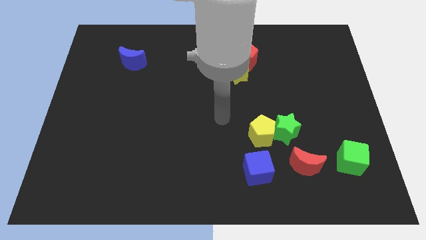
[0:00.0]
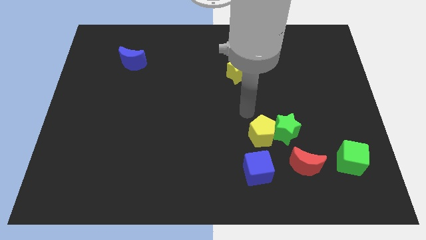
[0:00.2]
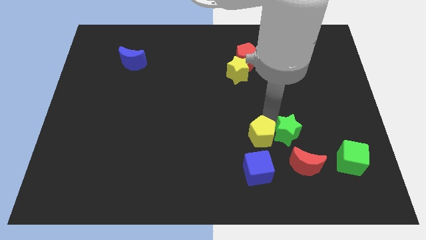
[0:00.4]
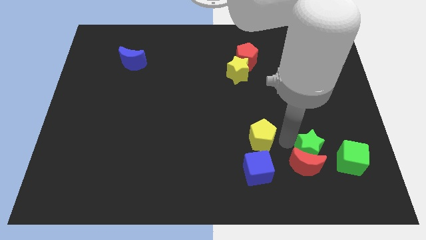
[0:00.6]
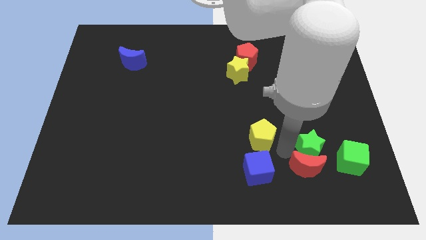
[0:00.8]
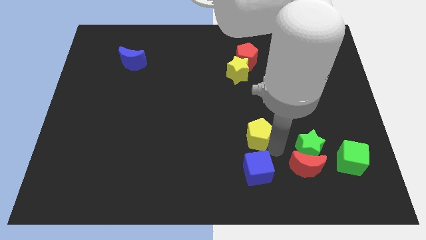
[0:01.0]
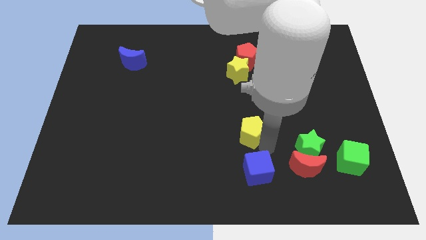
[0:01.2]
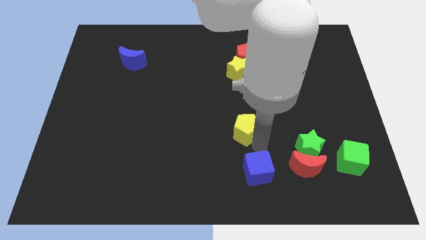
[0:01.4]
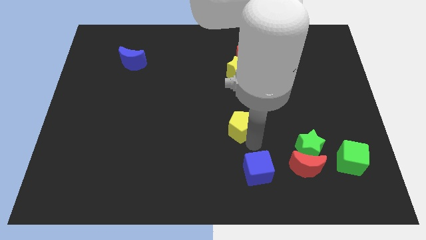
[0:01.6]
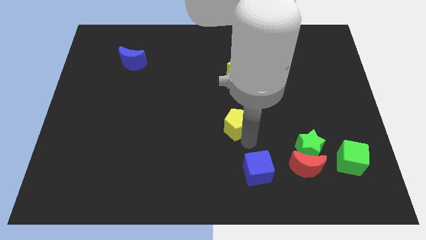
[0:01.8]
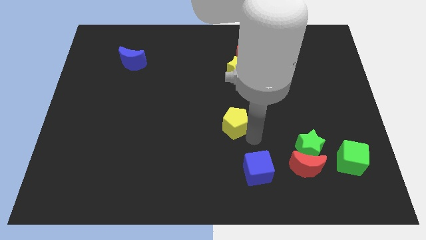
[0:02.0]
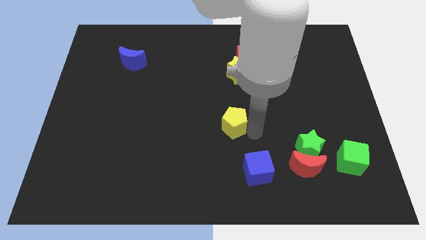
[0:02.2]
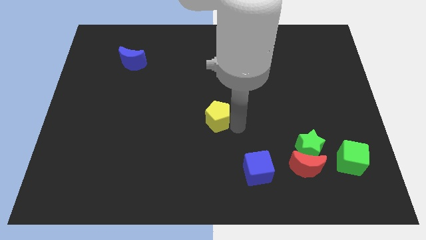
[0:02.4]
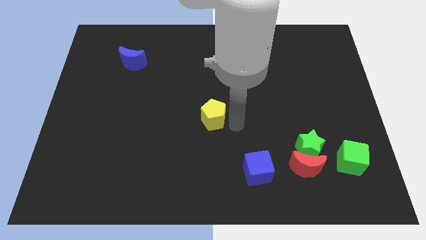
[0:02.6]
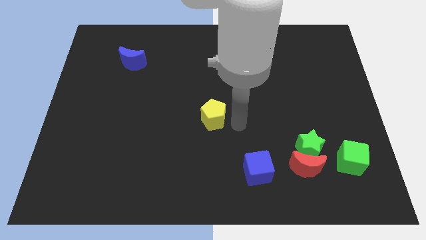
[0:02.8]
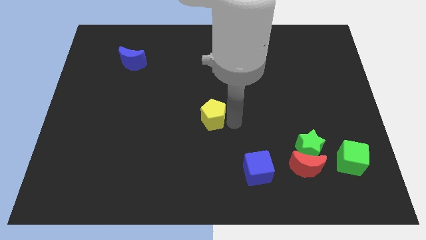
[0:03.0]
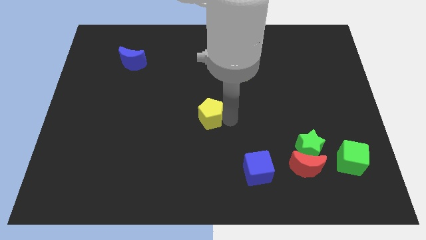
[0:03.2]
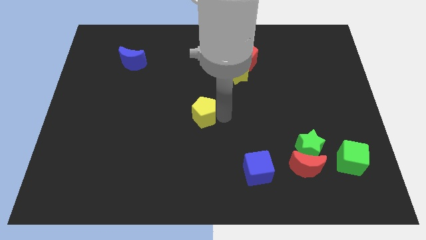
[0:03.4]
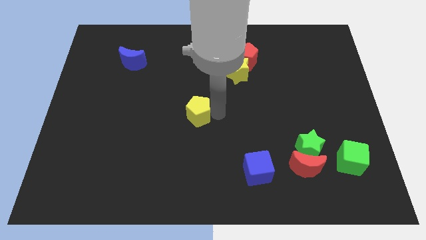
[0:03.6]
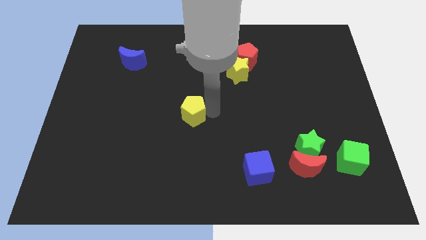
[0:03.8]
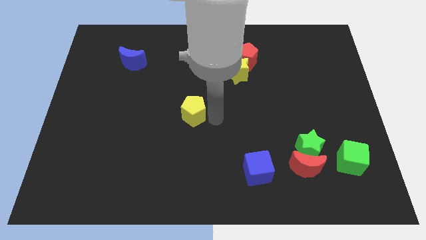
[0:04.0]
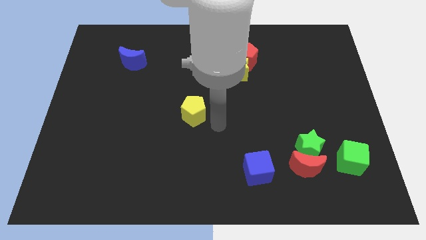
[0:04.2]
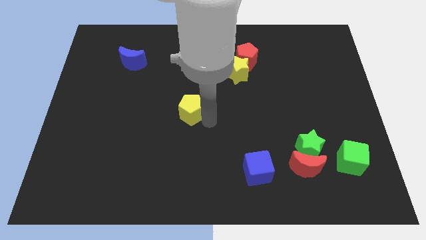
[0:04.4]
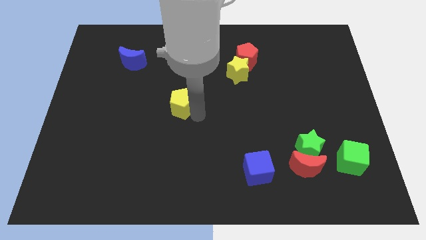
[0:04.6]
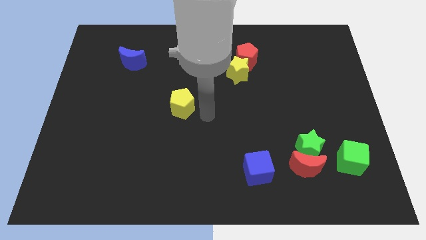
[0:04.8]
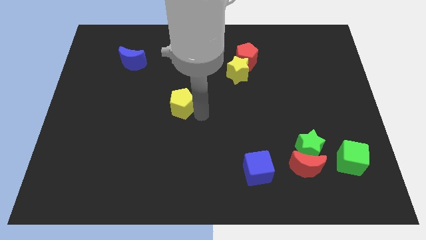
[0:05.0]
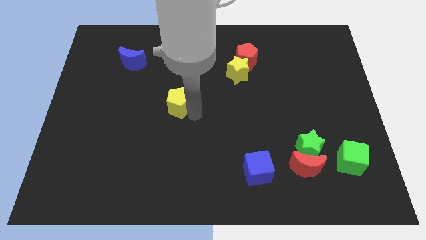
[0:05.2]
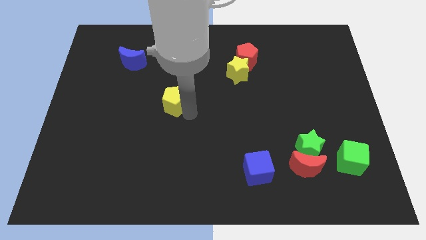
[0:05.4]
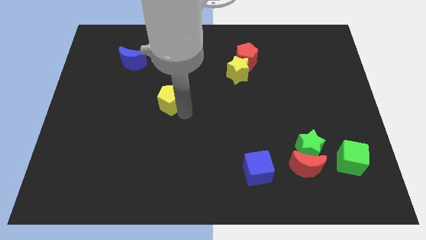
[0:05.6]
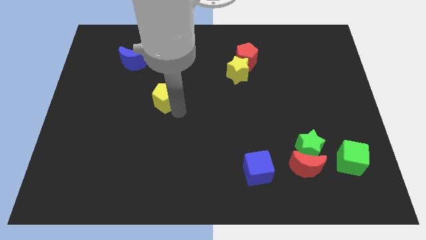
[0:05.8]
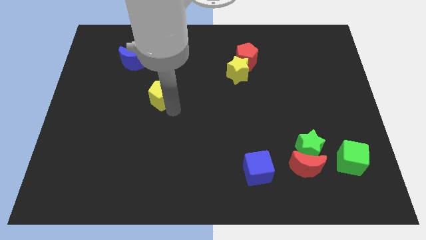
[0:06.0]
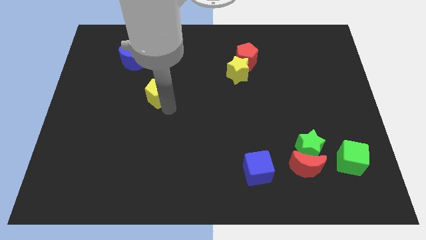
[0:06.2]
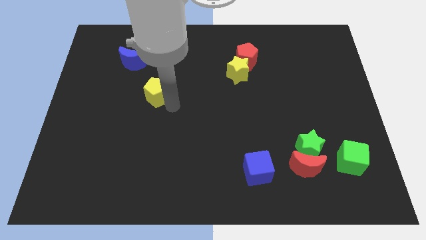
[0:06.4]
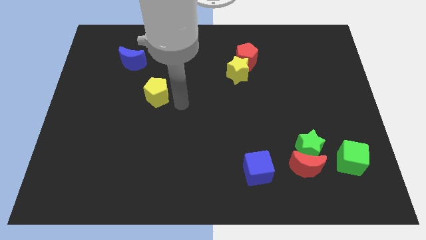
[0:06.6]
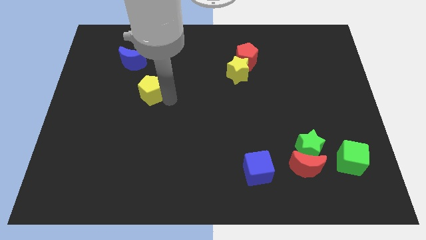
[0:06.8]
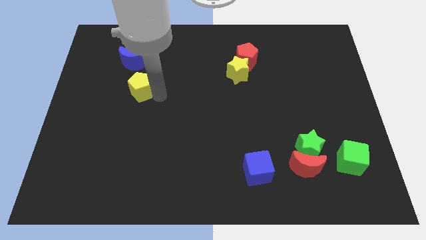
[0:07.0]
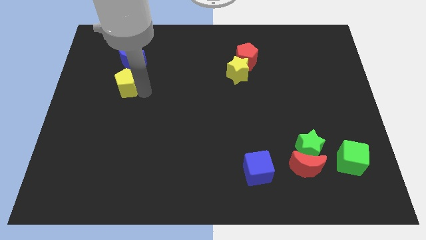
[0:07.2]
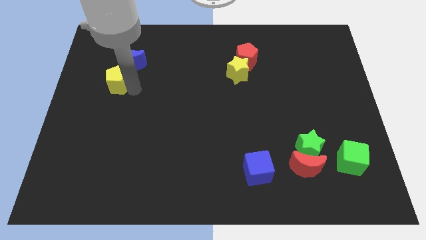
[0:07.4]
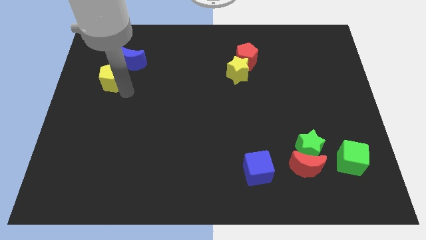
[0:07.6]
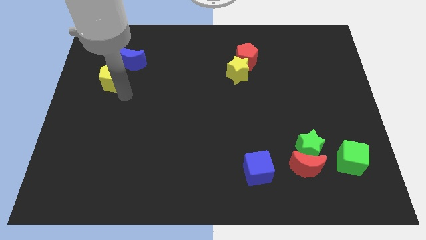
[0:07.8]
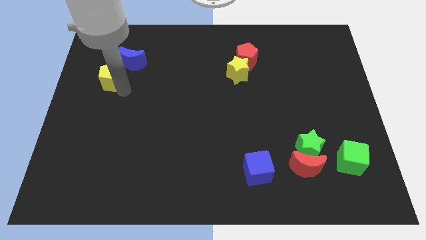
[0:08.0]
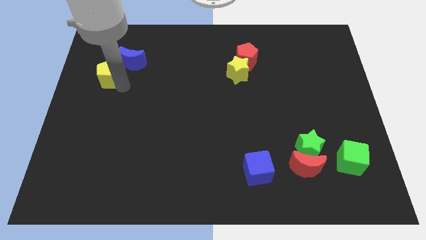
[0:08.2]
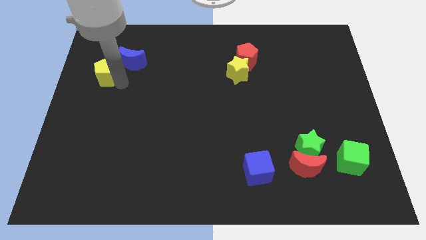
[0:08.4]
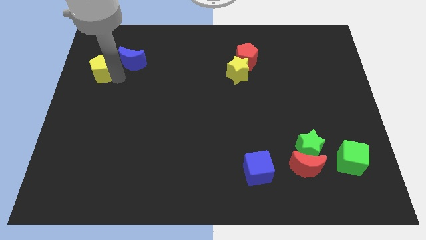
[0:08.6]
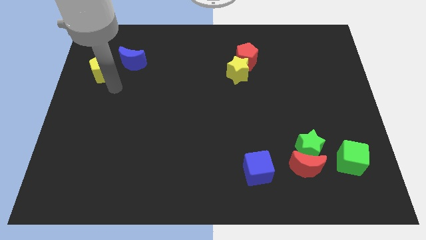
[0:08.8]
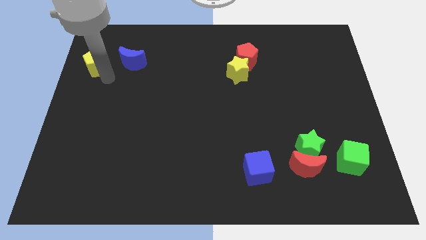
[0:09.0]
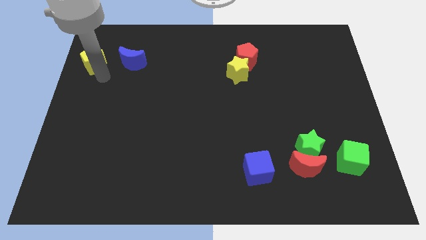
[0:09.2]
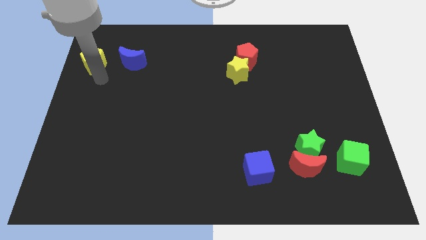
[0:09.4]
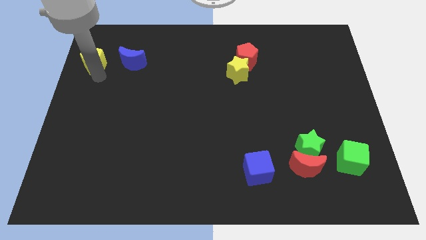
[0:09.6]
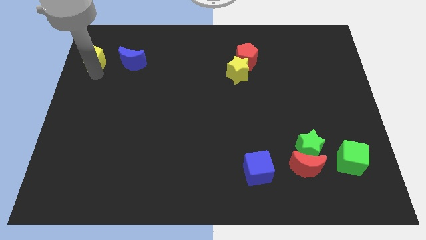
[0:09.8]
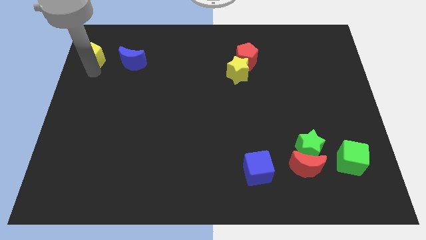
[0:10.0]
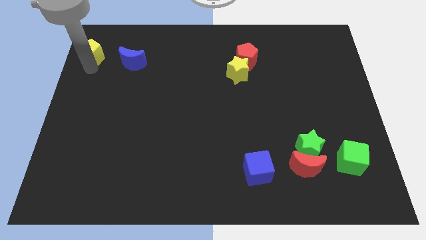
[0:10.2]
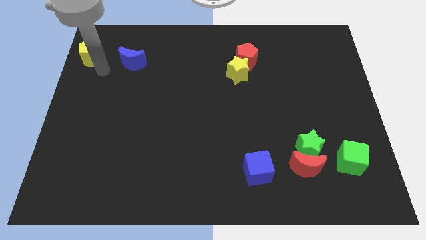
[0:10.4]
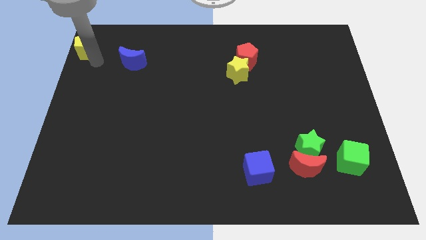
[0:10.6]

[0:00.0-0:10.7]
slide the yellow pentagon to the top left corner

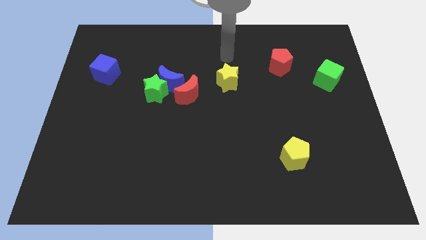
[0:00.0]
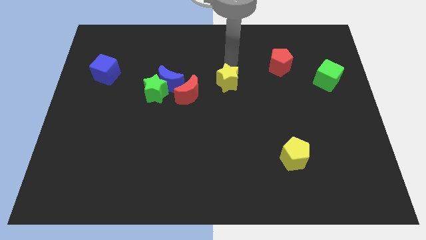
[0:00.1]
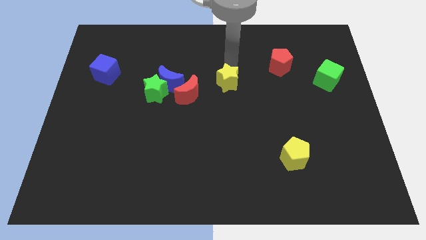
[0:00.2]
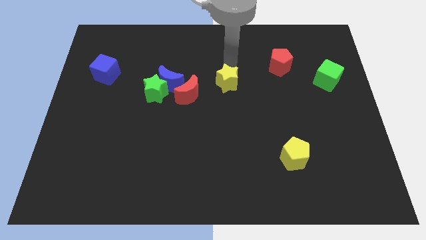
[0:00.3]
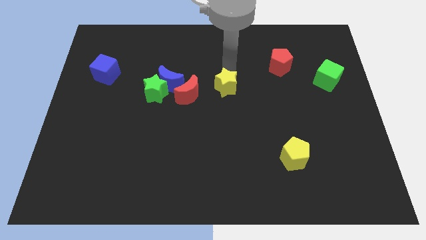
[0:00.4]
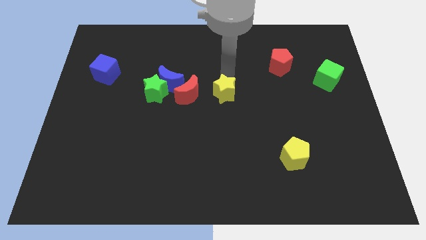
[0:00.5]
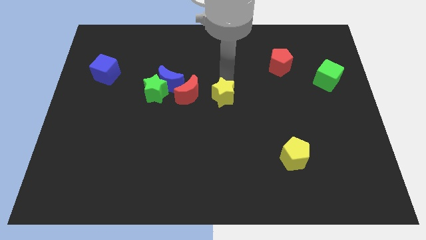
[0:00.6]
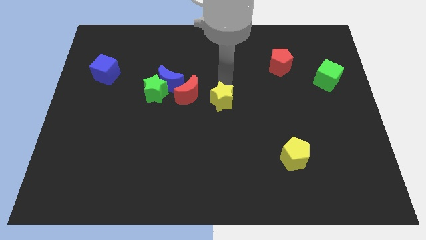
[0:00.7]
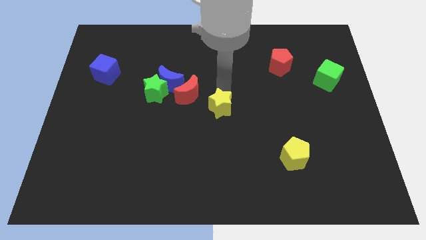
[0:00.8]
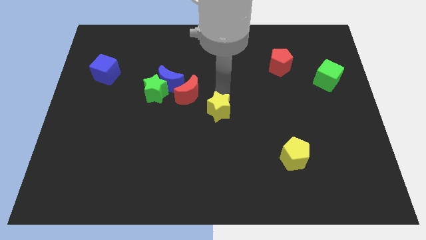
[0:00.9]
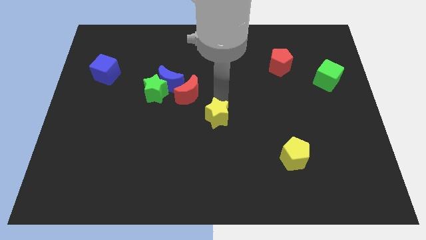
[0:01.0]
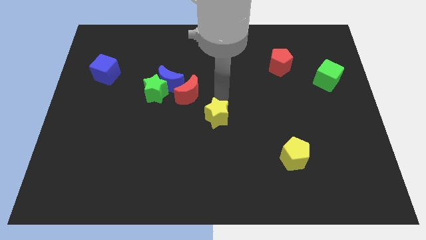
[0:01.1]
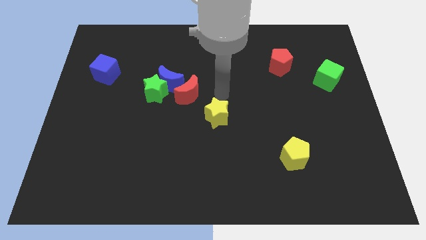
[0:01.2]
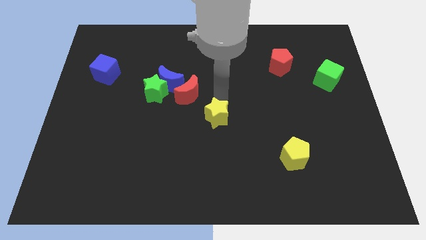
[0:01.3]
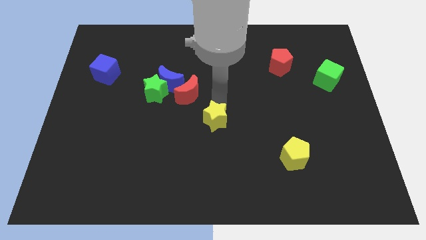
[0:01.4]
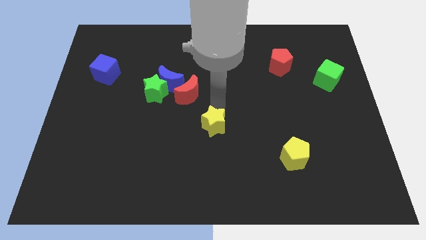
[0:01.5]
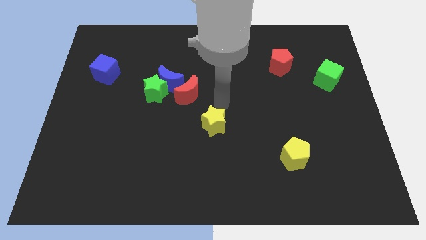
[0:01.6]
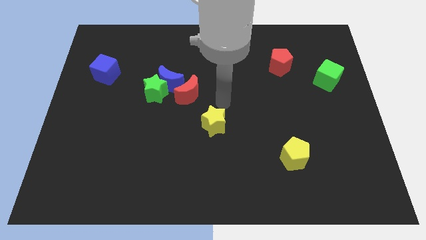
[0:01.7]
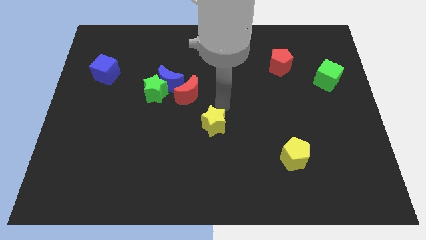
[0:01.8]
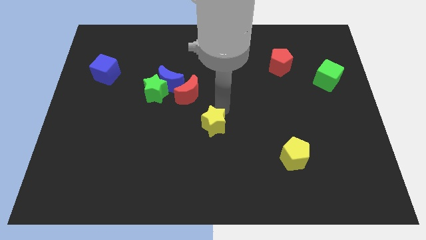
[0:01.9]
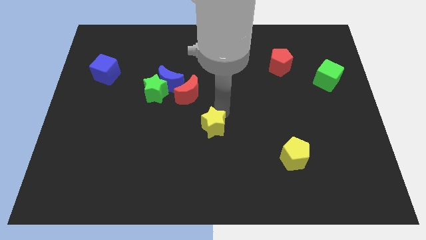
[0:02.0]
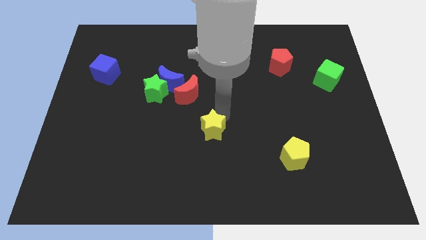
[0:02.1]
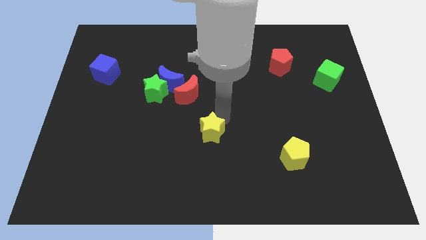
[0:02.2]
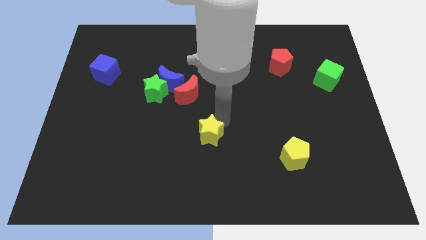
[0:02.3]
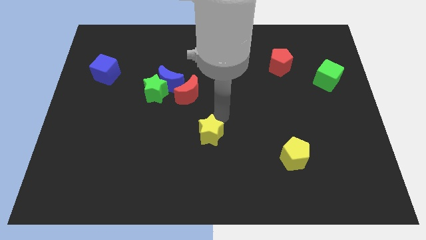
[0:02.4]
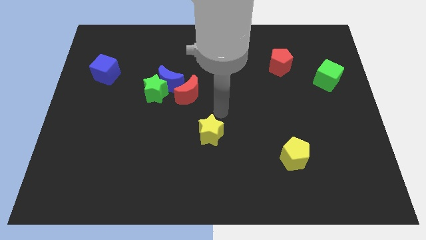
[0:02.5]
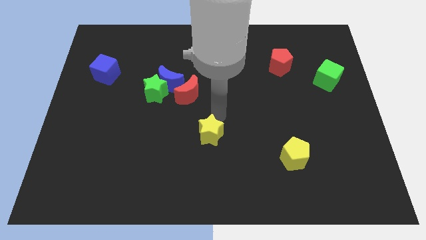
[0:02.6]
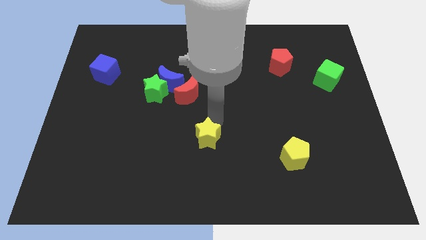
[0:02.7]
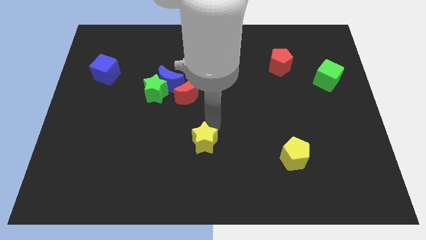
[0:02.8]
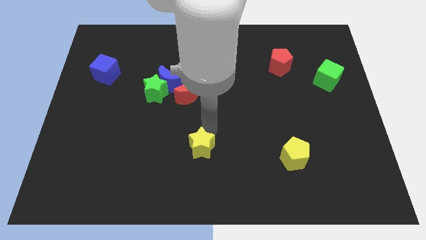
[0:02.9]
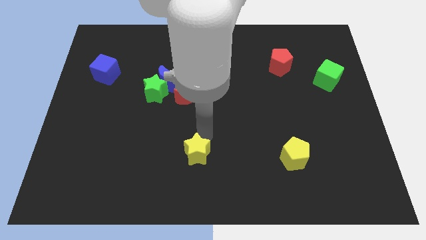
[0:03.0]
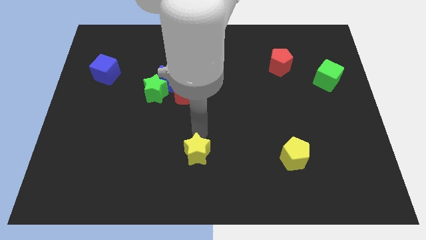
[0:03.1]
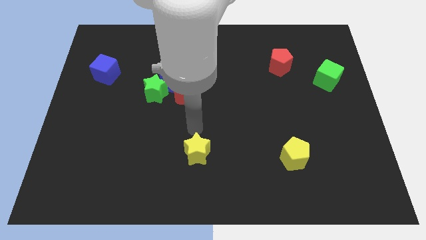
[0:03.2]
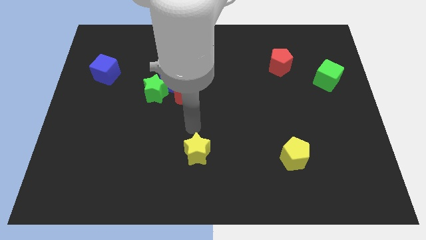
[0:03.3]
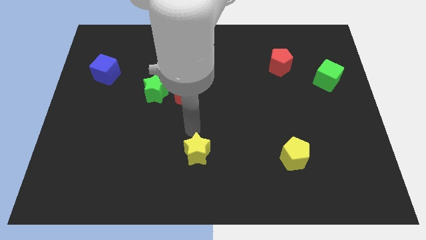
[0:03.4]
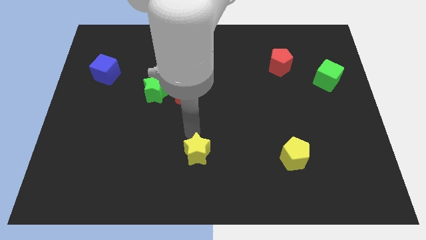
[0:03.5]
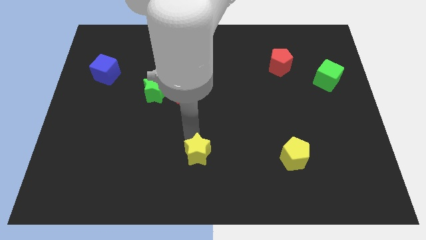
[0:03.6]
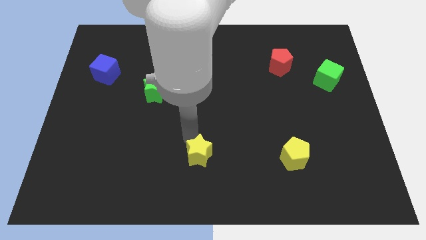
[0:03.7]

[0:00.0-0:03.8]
put the yellow star to the bottom side
